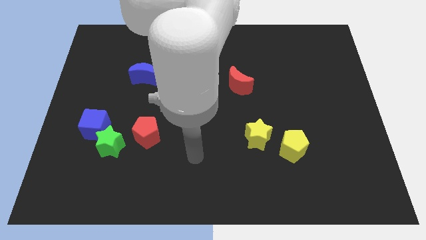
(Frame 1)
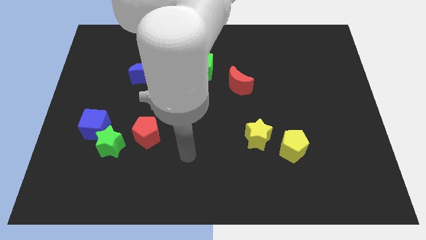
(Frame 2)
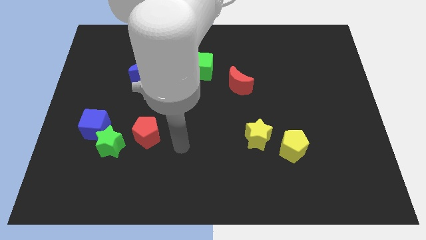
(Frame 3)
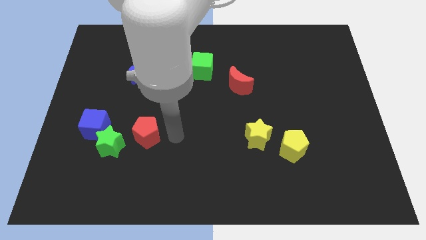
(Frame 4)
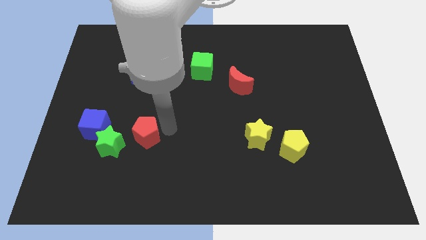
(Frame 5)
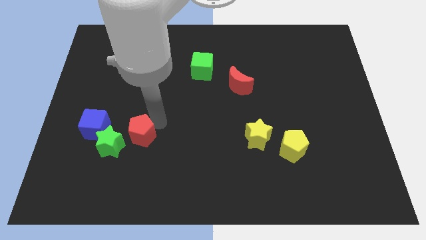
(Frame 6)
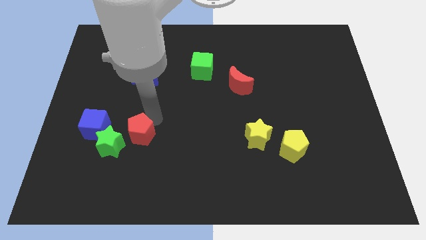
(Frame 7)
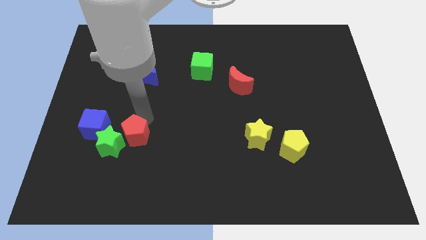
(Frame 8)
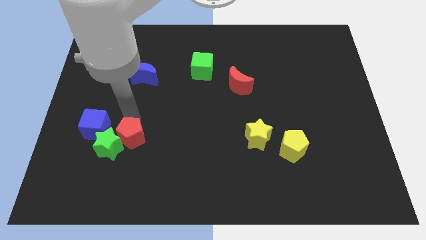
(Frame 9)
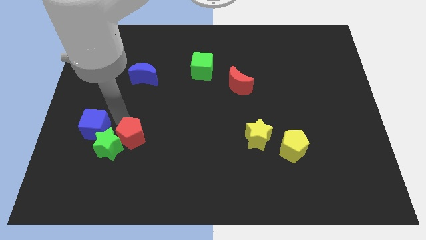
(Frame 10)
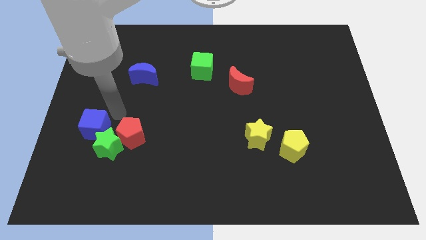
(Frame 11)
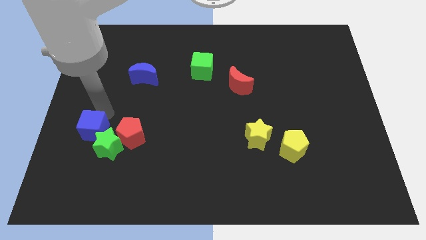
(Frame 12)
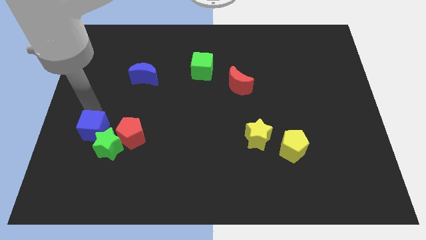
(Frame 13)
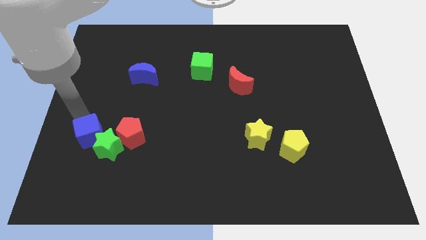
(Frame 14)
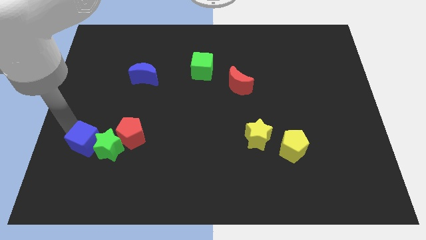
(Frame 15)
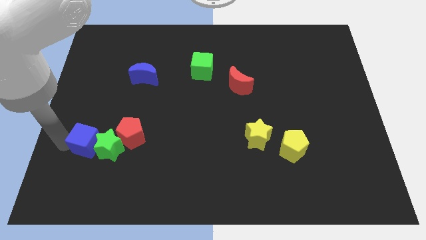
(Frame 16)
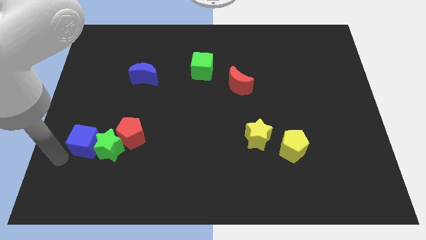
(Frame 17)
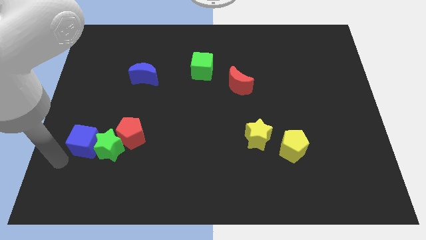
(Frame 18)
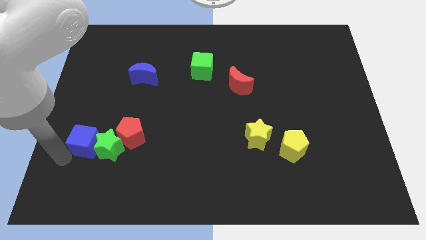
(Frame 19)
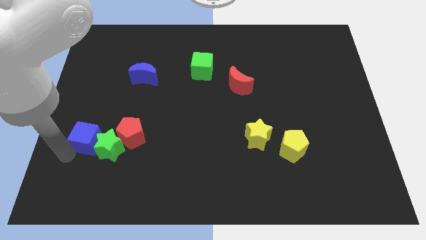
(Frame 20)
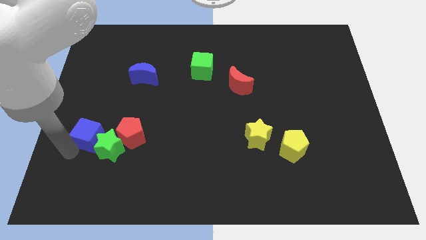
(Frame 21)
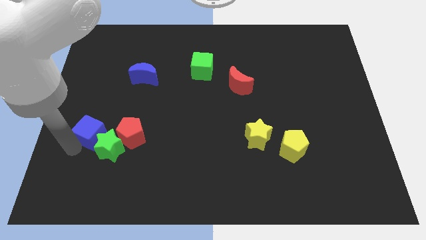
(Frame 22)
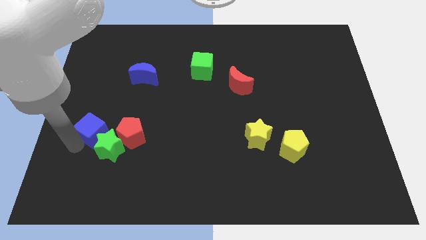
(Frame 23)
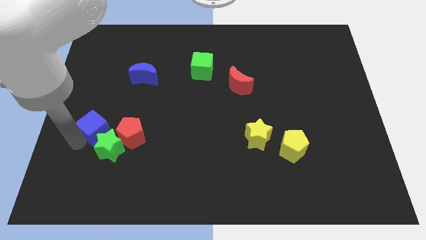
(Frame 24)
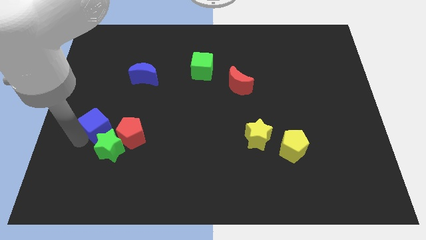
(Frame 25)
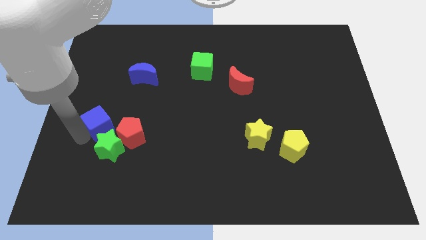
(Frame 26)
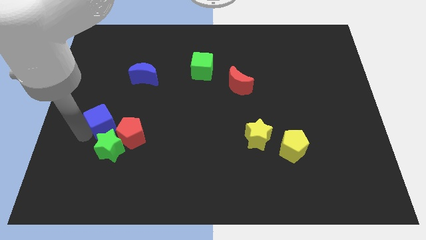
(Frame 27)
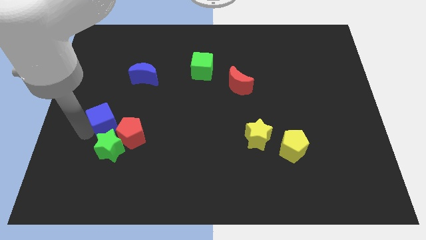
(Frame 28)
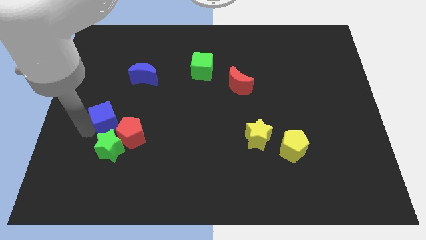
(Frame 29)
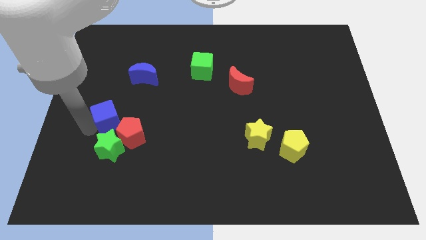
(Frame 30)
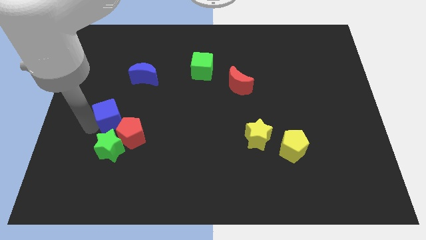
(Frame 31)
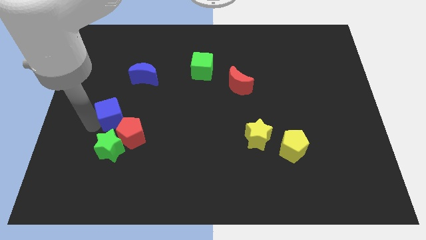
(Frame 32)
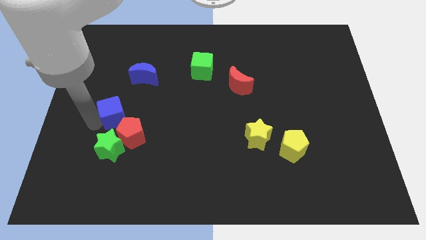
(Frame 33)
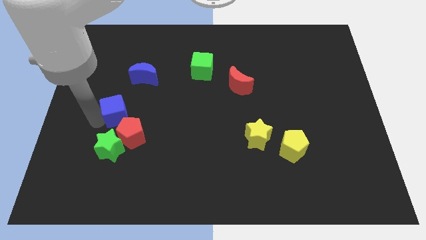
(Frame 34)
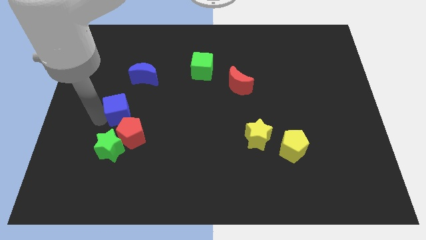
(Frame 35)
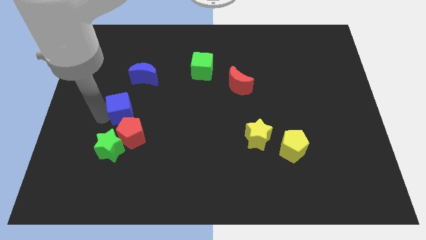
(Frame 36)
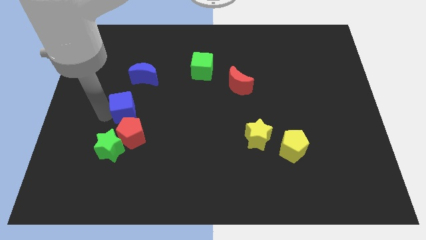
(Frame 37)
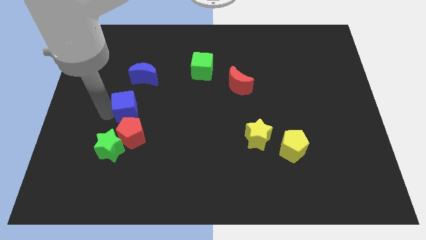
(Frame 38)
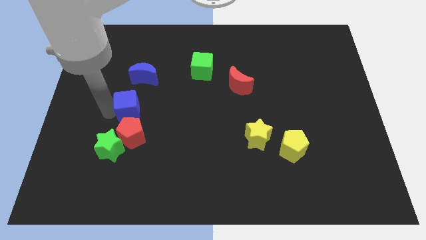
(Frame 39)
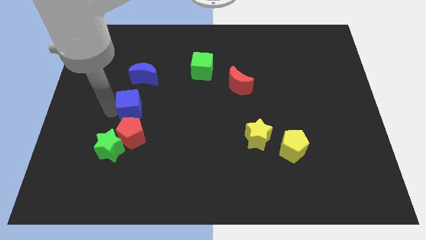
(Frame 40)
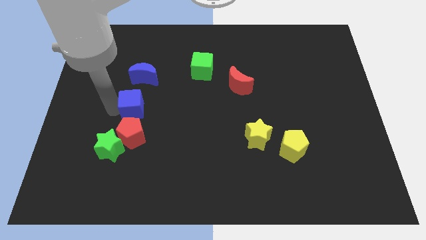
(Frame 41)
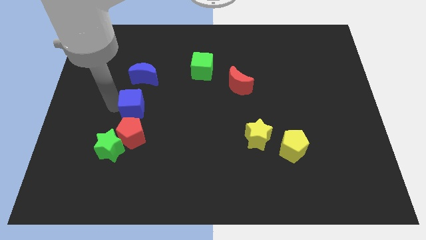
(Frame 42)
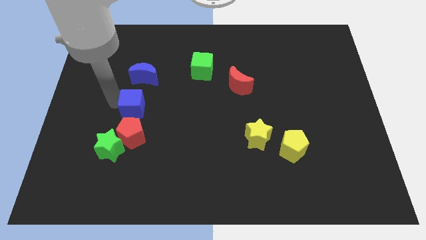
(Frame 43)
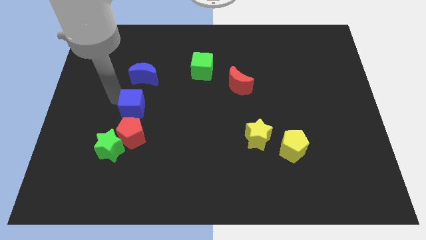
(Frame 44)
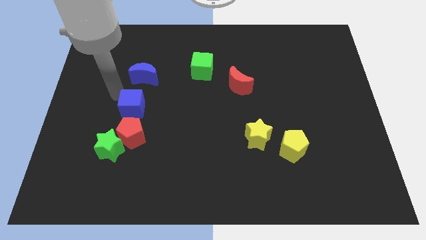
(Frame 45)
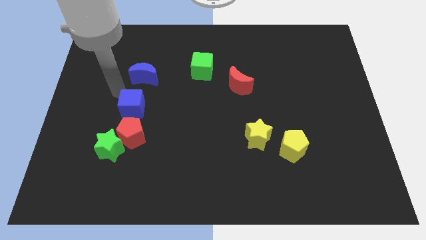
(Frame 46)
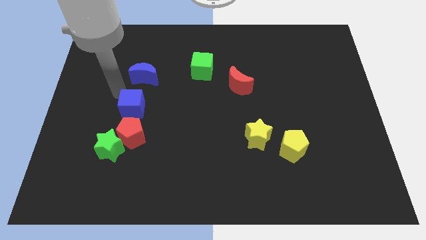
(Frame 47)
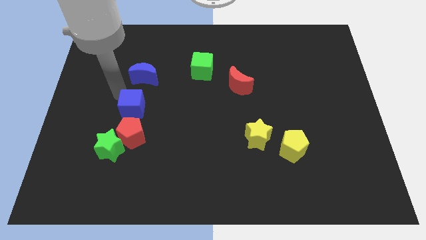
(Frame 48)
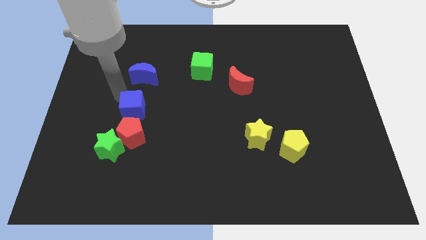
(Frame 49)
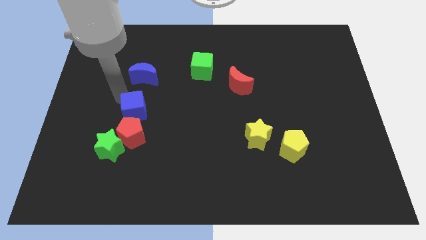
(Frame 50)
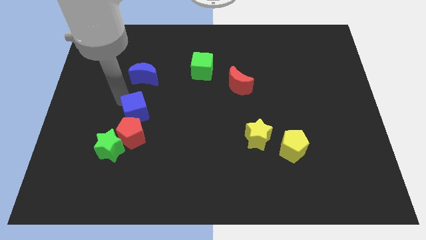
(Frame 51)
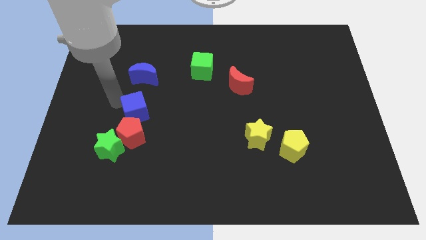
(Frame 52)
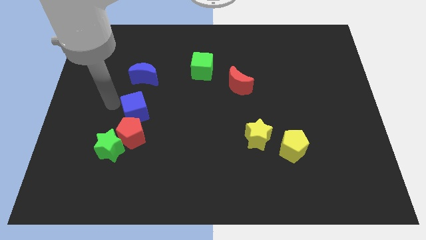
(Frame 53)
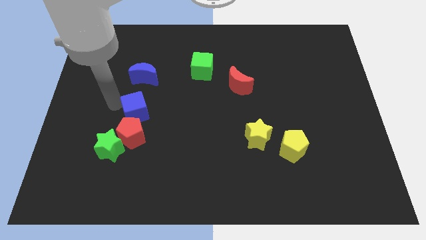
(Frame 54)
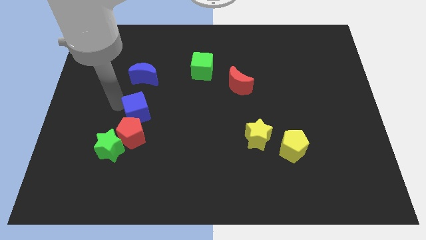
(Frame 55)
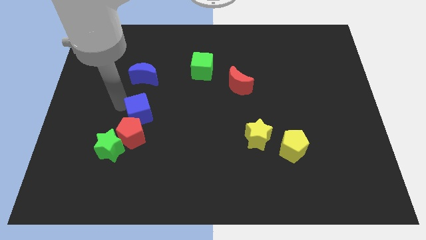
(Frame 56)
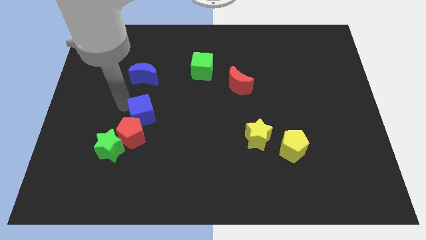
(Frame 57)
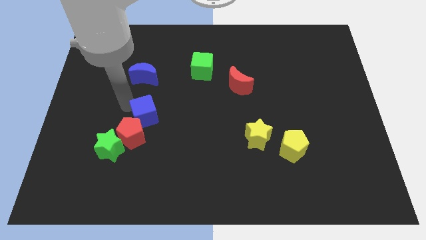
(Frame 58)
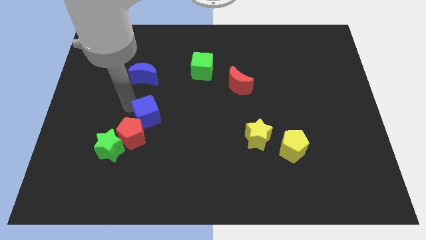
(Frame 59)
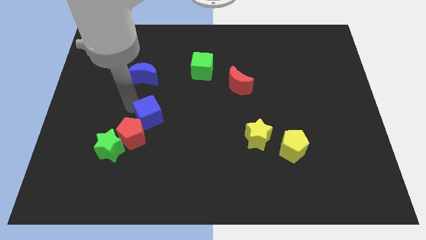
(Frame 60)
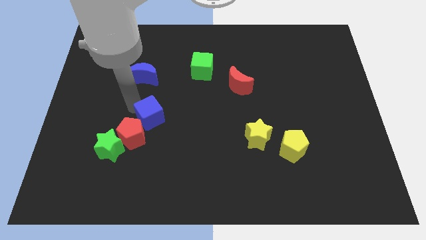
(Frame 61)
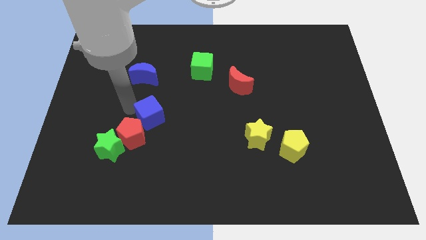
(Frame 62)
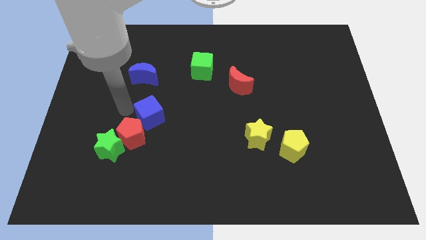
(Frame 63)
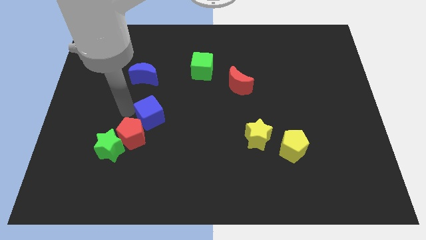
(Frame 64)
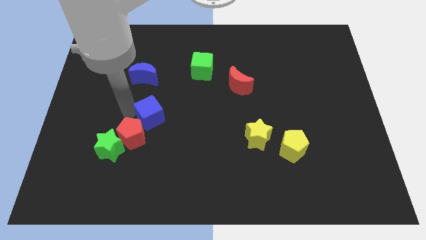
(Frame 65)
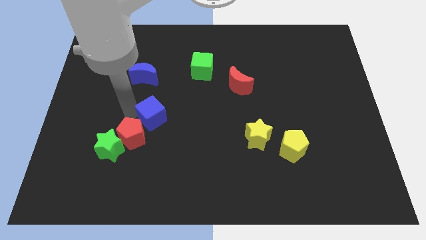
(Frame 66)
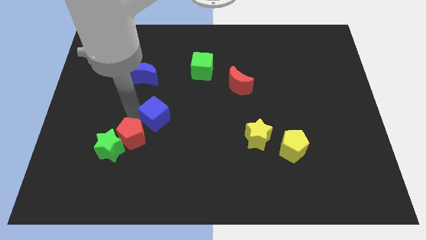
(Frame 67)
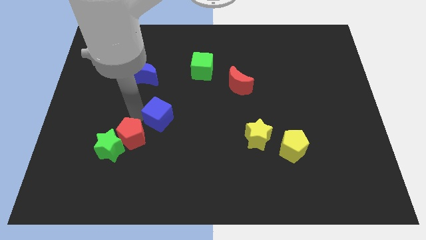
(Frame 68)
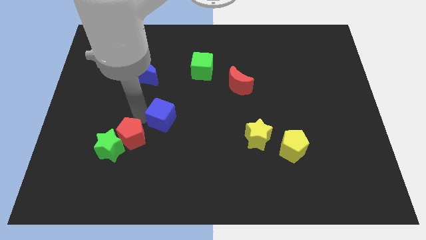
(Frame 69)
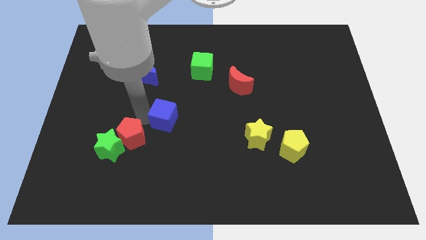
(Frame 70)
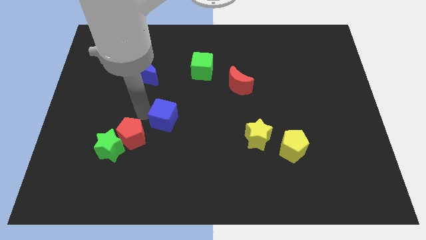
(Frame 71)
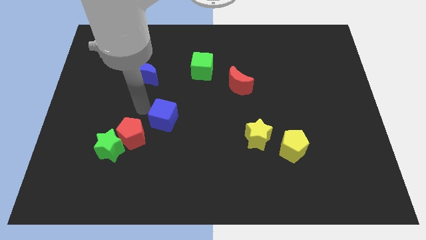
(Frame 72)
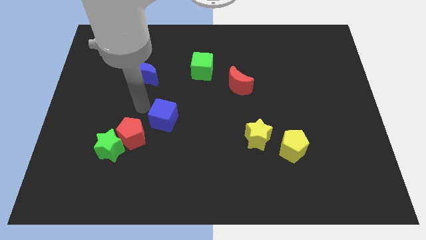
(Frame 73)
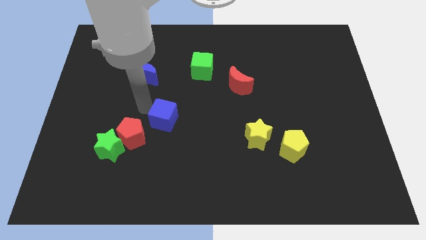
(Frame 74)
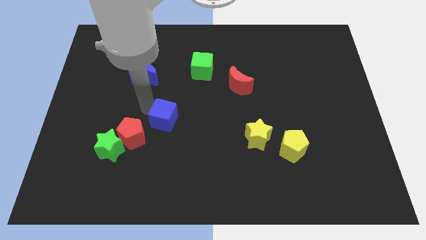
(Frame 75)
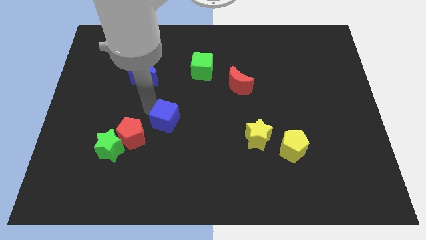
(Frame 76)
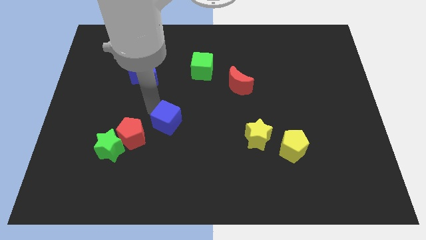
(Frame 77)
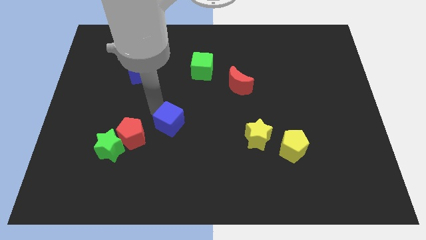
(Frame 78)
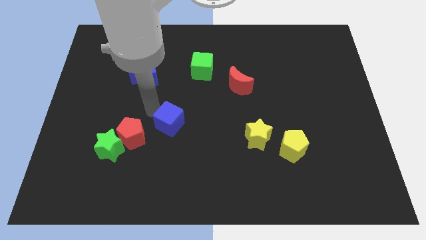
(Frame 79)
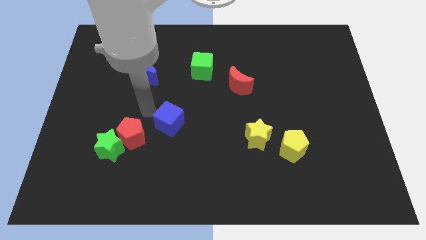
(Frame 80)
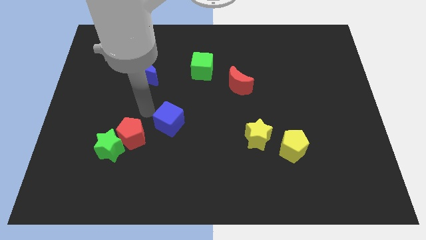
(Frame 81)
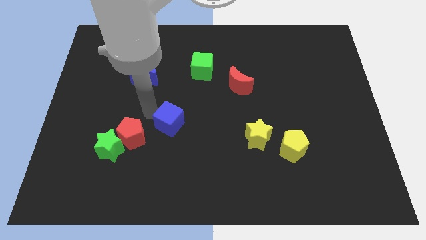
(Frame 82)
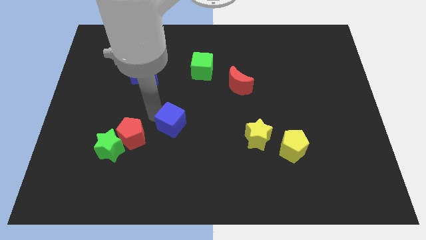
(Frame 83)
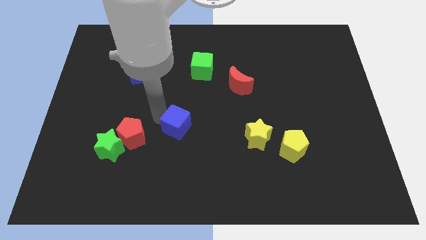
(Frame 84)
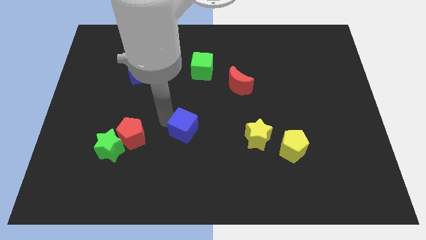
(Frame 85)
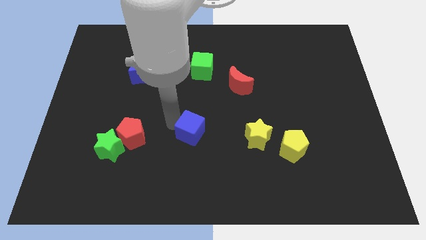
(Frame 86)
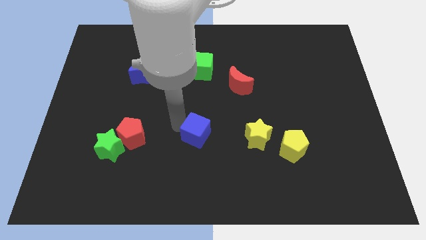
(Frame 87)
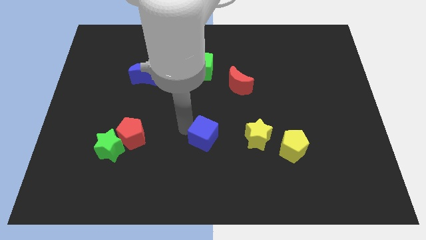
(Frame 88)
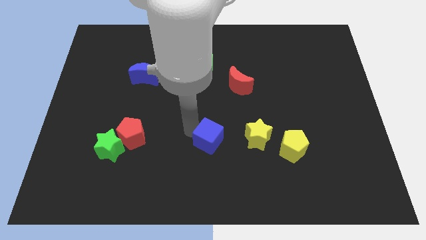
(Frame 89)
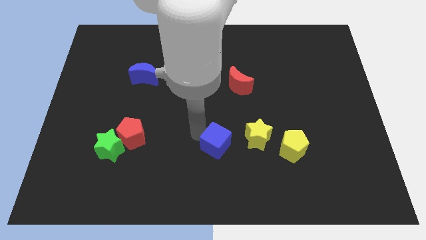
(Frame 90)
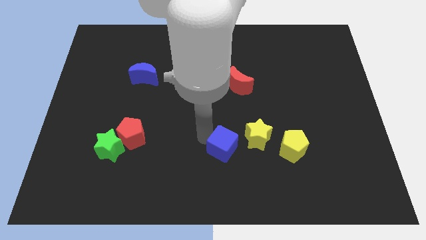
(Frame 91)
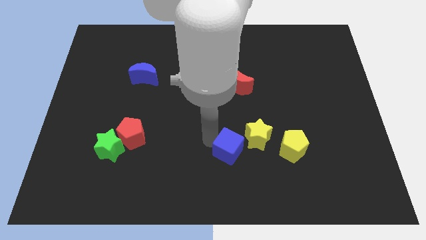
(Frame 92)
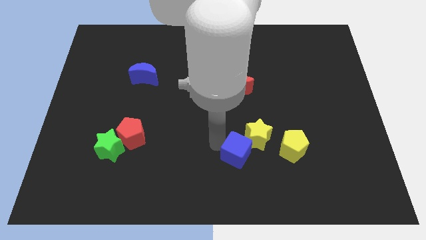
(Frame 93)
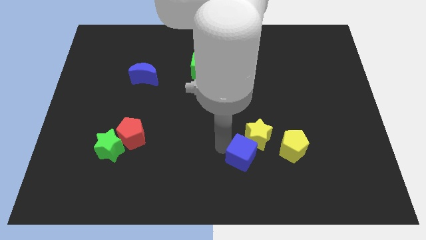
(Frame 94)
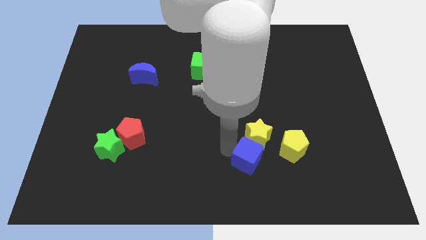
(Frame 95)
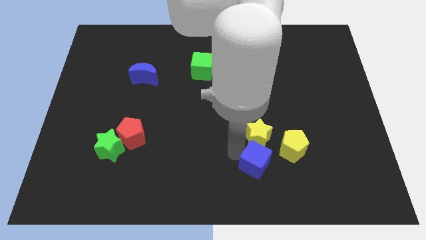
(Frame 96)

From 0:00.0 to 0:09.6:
put the blue cube diagonally down and to the left of the yellow pentagon
